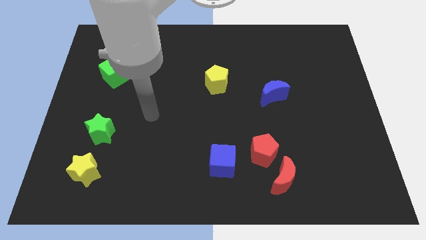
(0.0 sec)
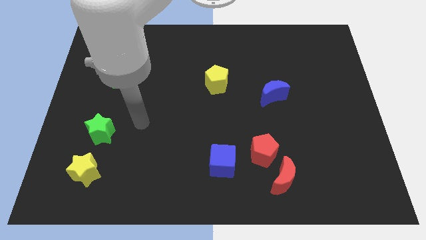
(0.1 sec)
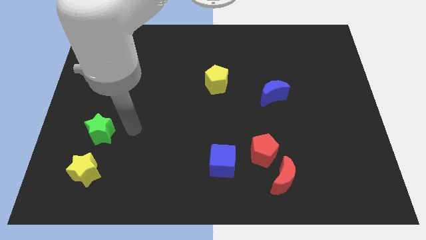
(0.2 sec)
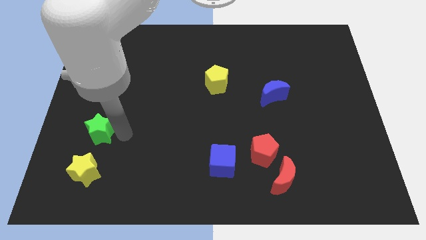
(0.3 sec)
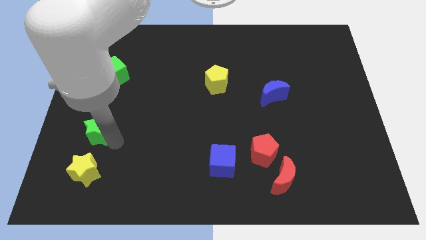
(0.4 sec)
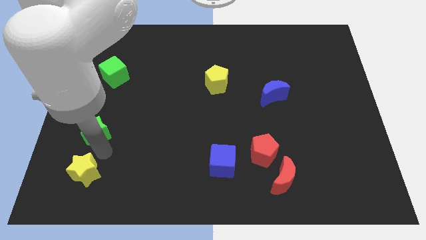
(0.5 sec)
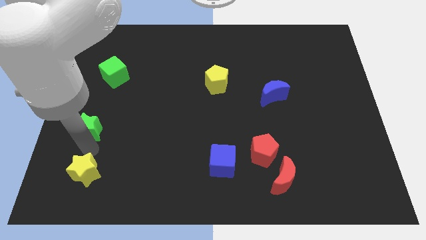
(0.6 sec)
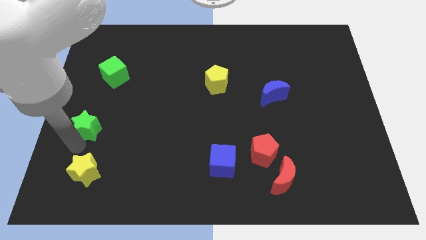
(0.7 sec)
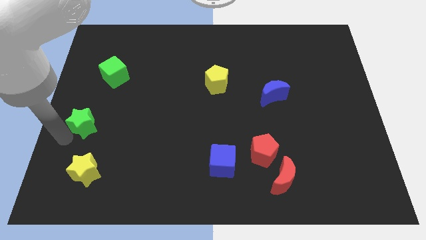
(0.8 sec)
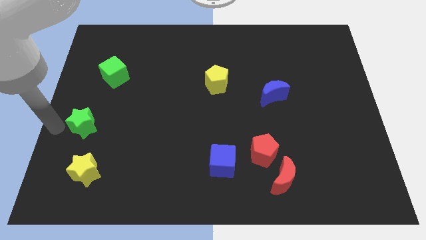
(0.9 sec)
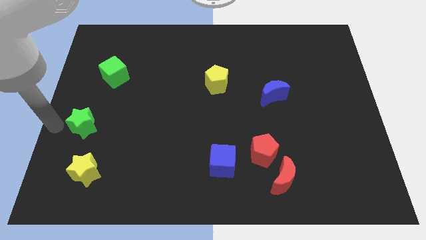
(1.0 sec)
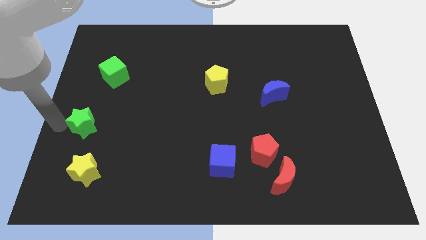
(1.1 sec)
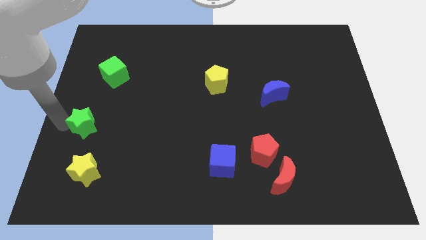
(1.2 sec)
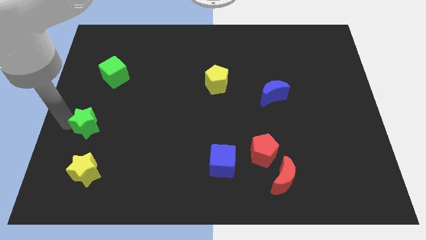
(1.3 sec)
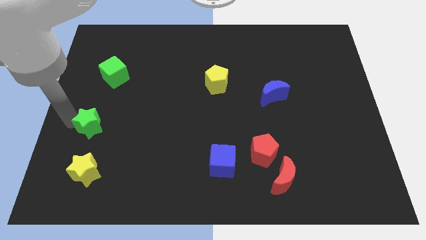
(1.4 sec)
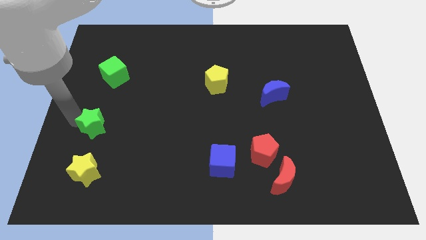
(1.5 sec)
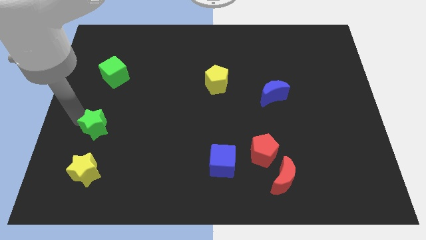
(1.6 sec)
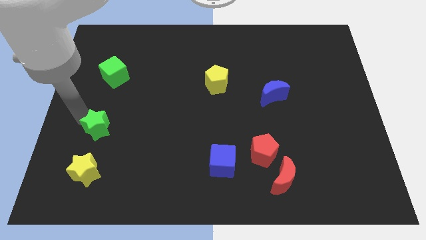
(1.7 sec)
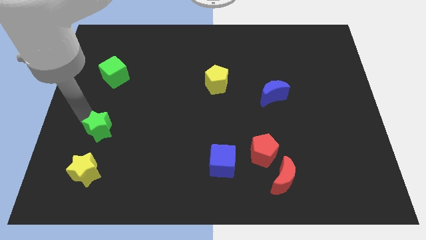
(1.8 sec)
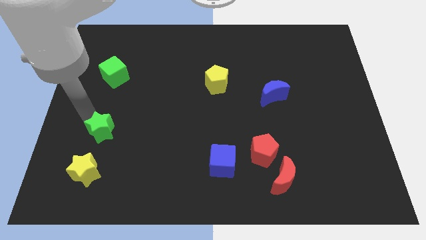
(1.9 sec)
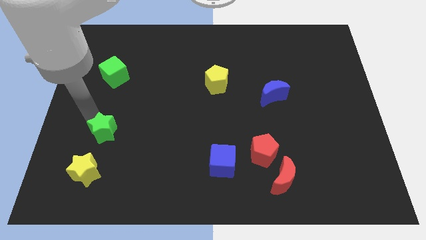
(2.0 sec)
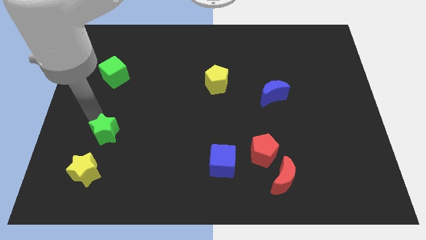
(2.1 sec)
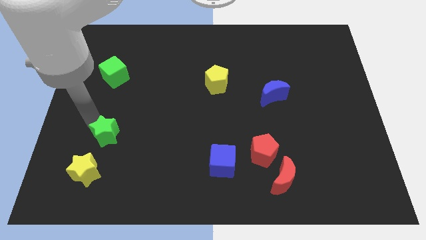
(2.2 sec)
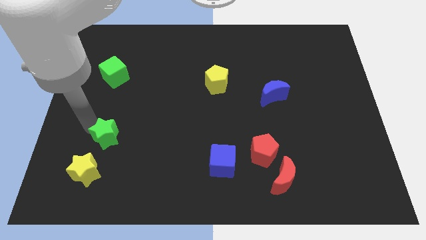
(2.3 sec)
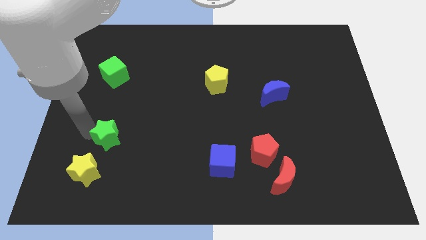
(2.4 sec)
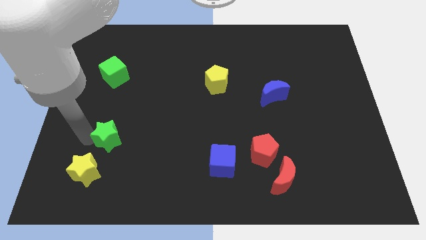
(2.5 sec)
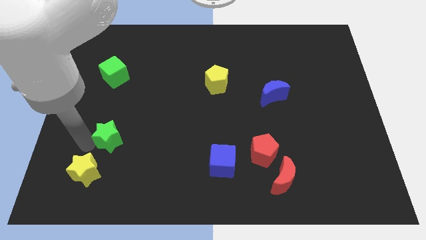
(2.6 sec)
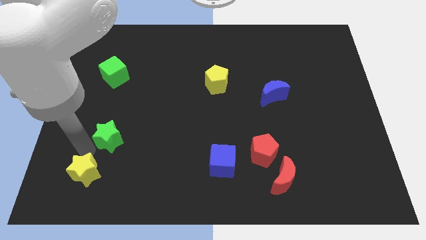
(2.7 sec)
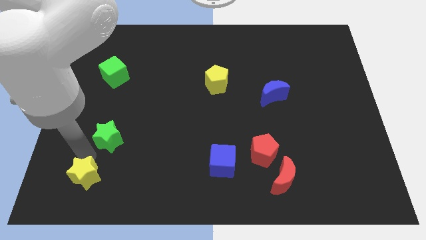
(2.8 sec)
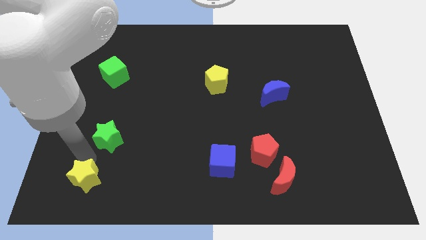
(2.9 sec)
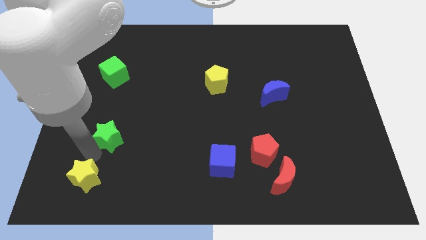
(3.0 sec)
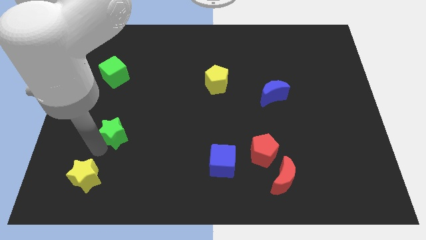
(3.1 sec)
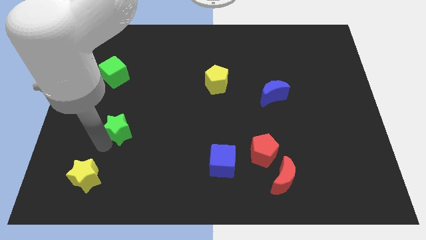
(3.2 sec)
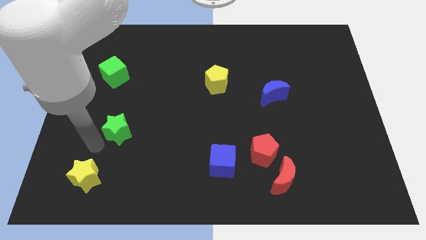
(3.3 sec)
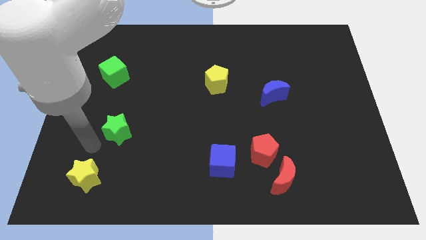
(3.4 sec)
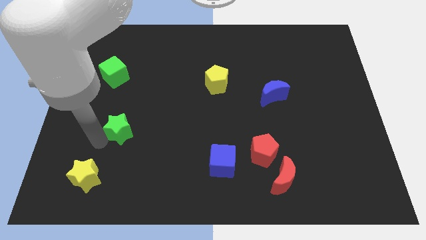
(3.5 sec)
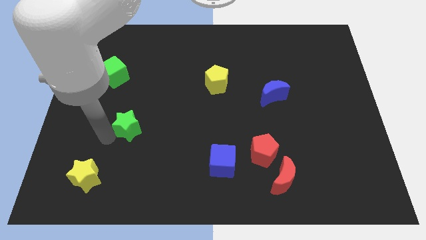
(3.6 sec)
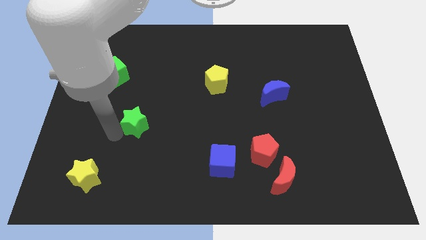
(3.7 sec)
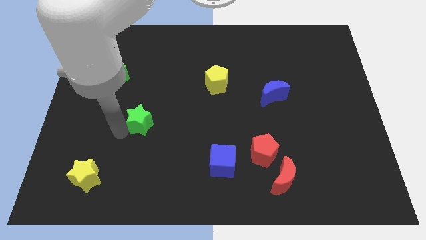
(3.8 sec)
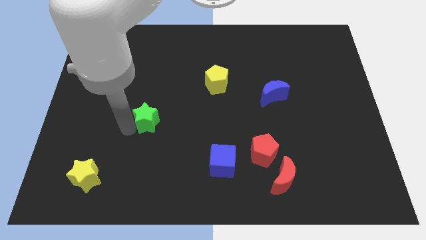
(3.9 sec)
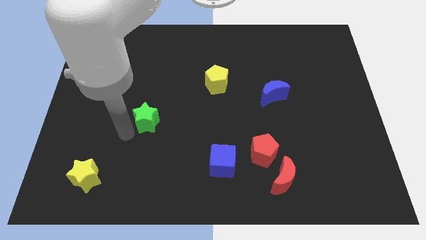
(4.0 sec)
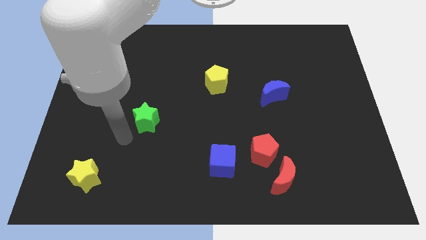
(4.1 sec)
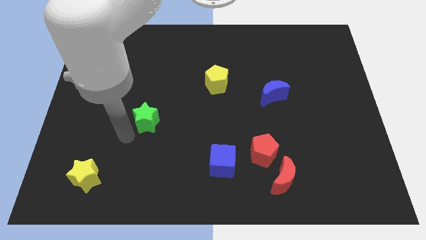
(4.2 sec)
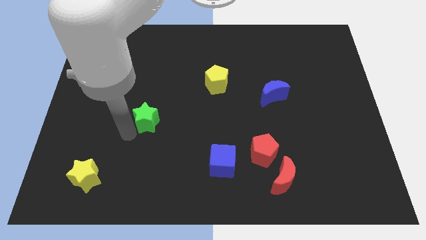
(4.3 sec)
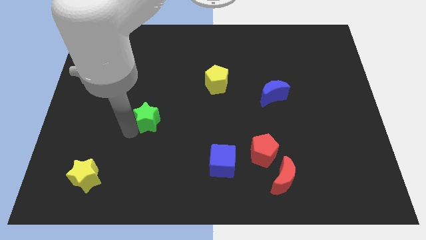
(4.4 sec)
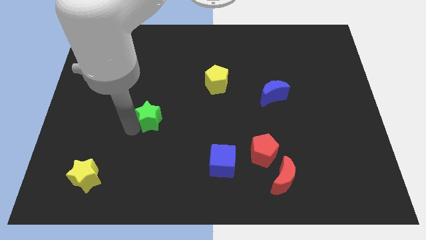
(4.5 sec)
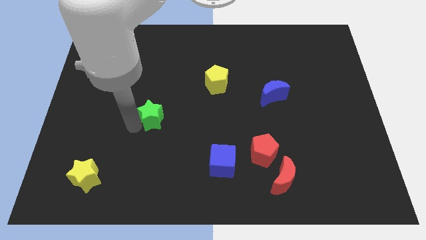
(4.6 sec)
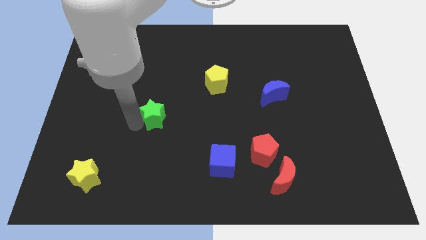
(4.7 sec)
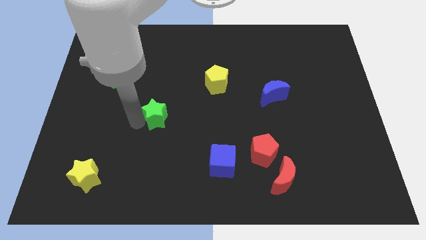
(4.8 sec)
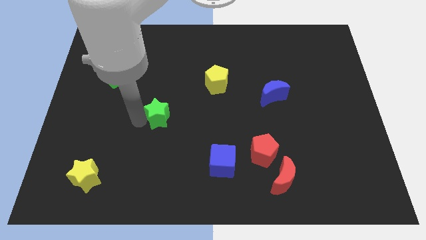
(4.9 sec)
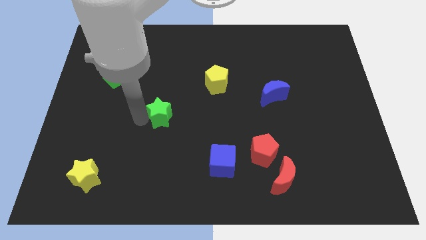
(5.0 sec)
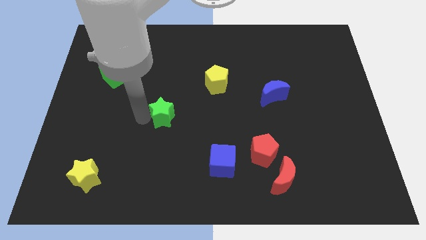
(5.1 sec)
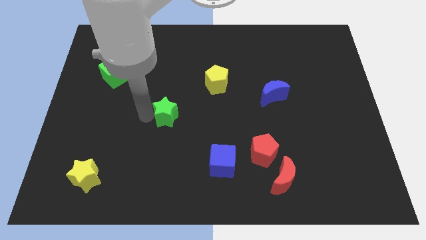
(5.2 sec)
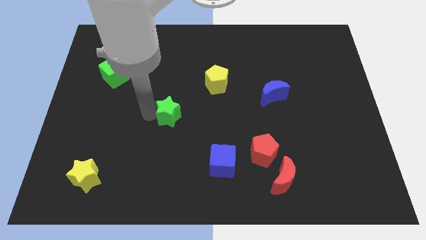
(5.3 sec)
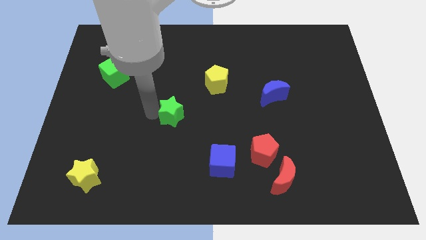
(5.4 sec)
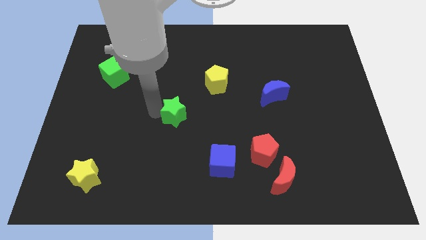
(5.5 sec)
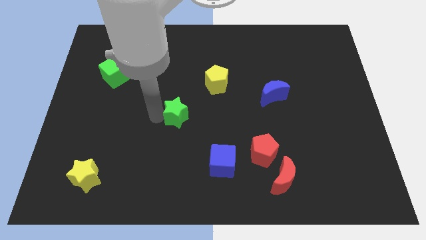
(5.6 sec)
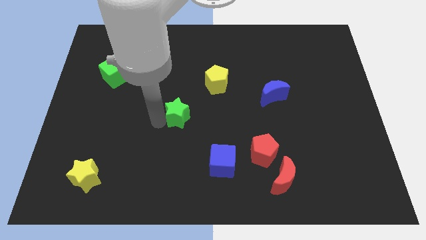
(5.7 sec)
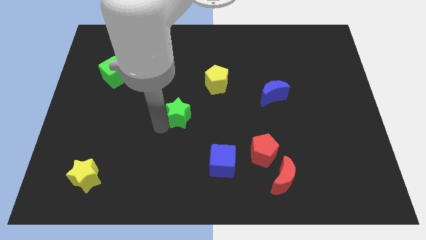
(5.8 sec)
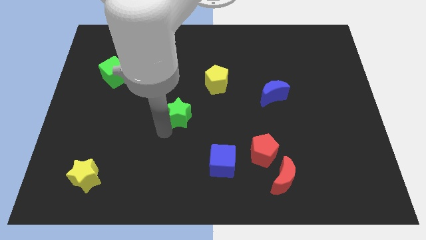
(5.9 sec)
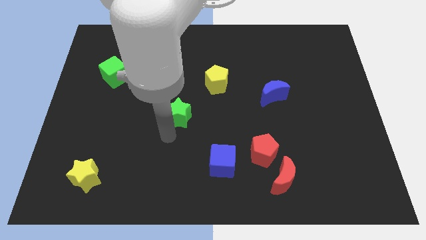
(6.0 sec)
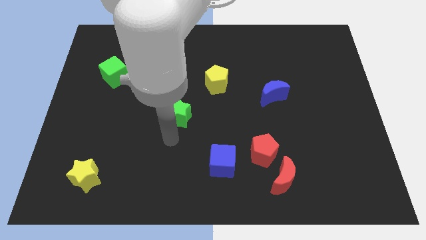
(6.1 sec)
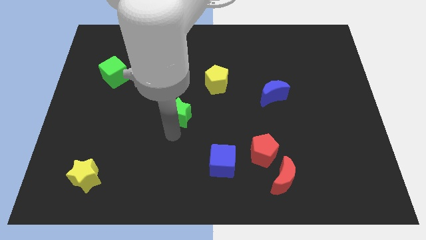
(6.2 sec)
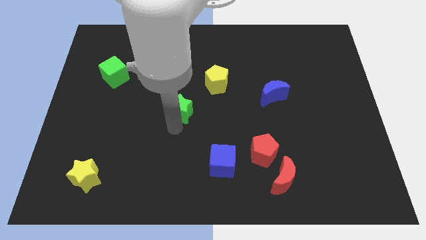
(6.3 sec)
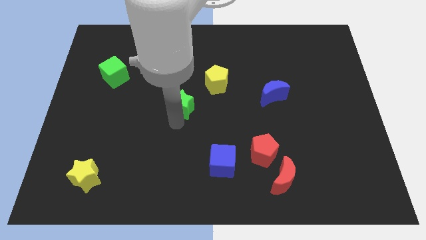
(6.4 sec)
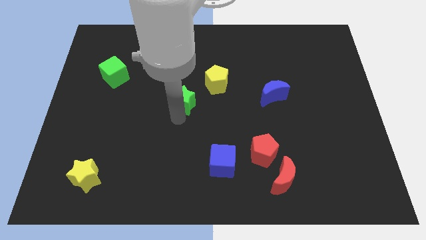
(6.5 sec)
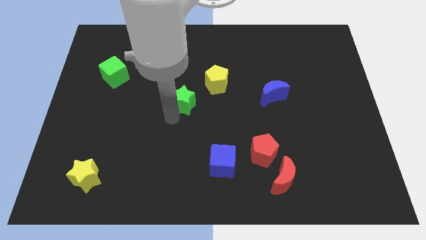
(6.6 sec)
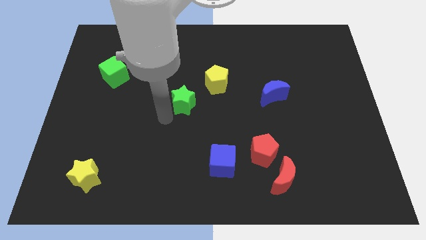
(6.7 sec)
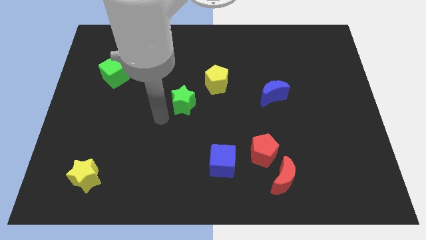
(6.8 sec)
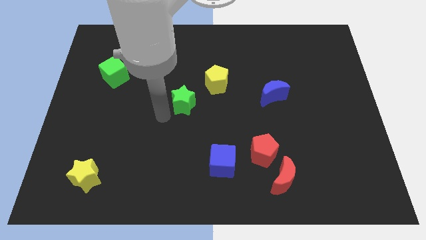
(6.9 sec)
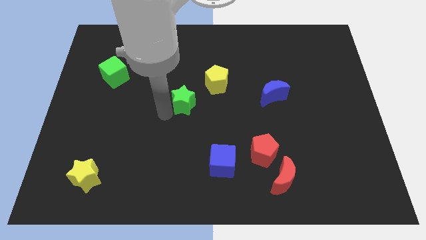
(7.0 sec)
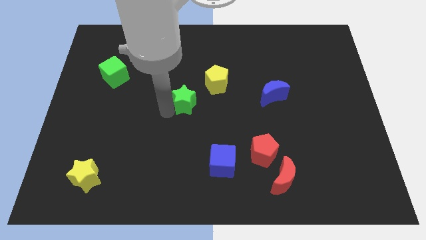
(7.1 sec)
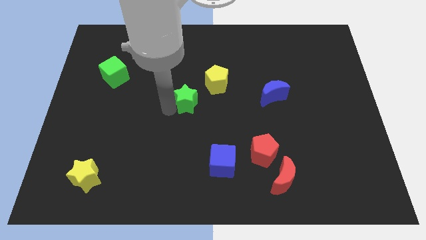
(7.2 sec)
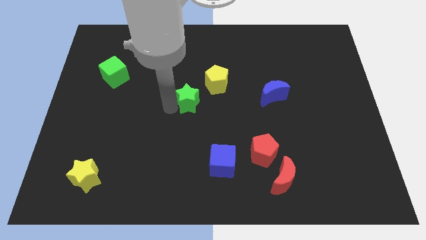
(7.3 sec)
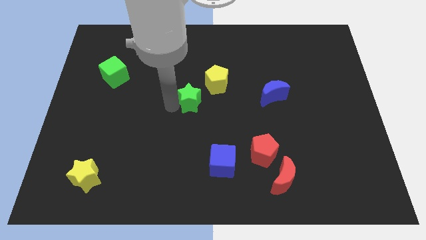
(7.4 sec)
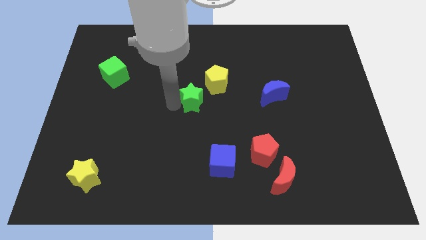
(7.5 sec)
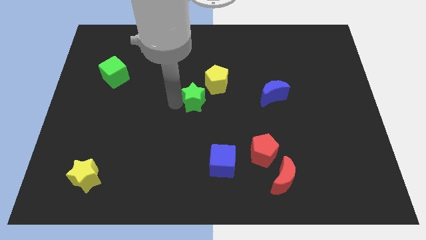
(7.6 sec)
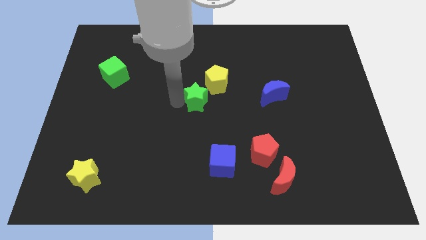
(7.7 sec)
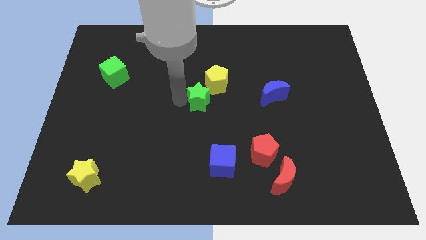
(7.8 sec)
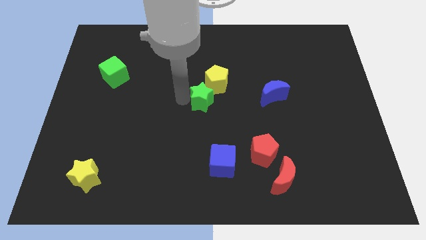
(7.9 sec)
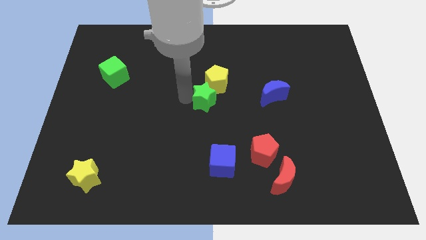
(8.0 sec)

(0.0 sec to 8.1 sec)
push the green star to the yellow pentagon
